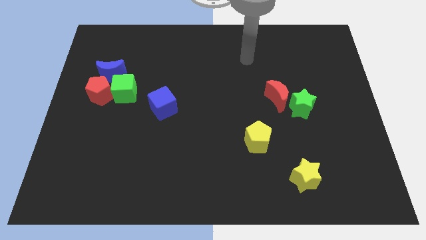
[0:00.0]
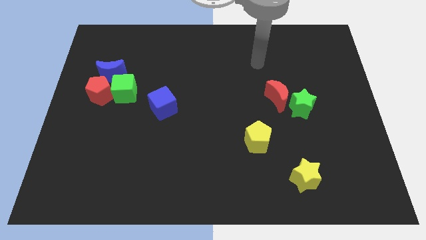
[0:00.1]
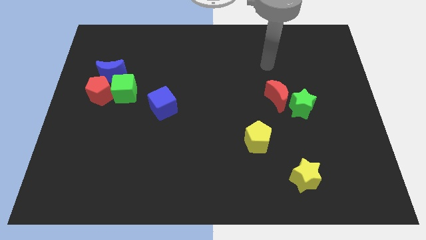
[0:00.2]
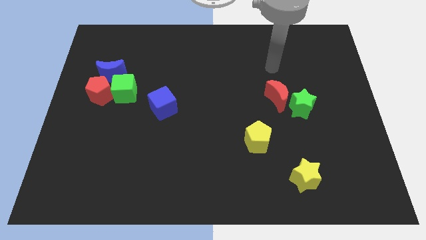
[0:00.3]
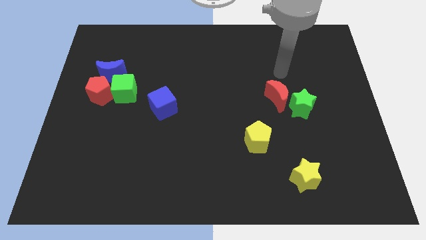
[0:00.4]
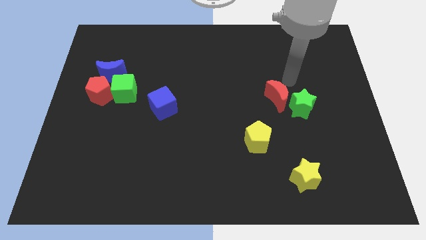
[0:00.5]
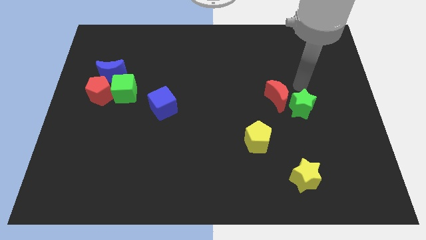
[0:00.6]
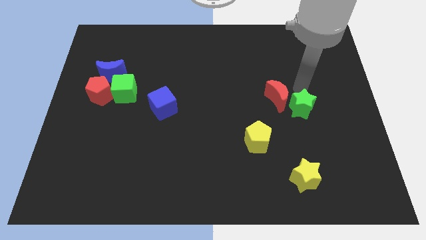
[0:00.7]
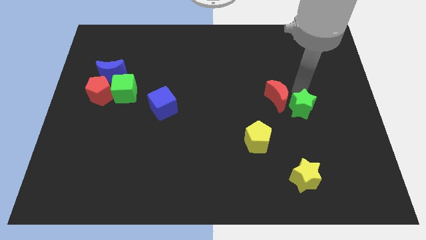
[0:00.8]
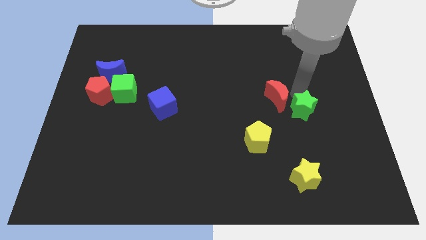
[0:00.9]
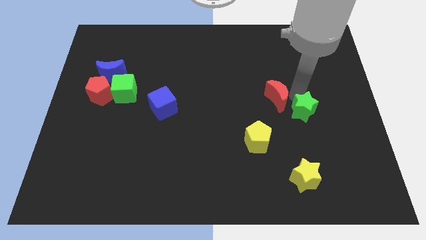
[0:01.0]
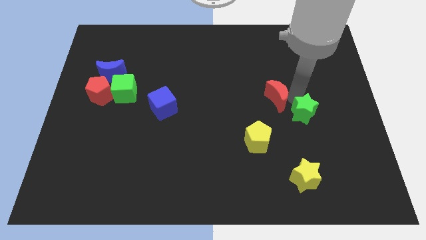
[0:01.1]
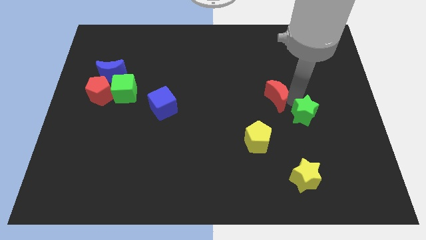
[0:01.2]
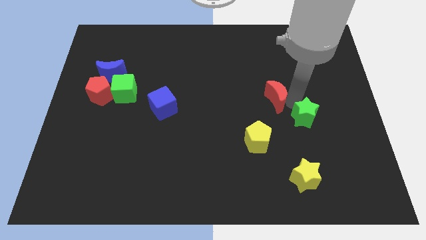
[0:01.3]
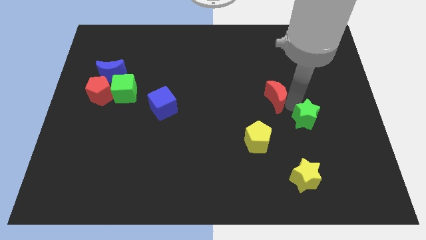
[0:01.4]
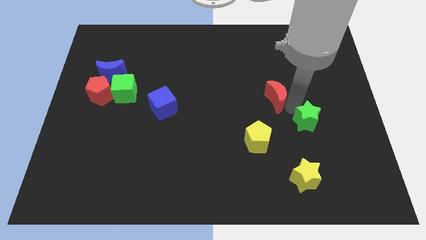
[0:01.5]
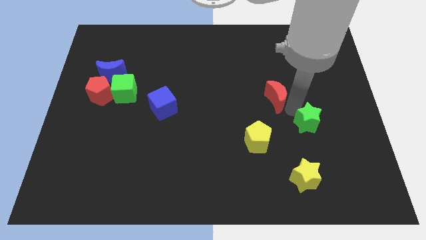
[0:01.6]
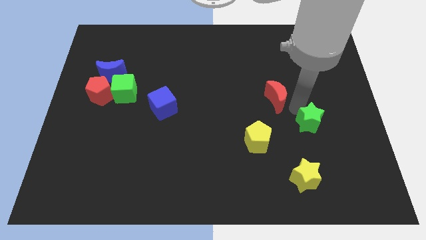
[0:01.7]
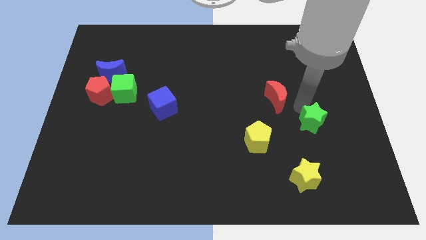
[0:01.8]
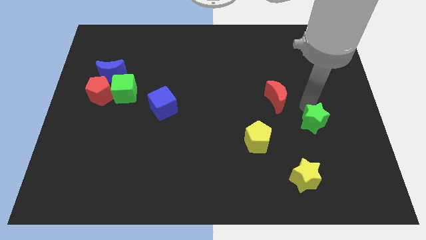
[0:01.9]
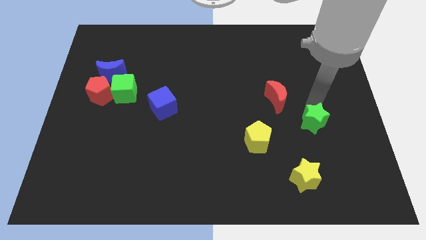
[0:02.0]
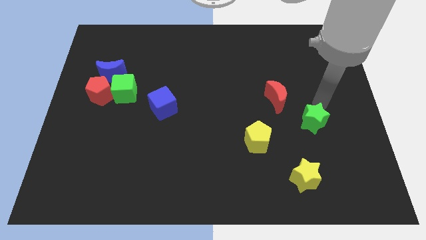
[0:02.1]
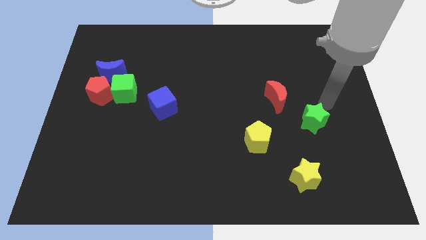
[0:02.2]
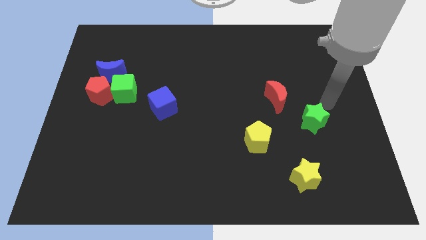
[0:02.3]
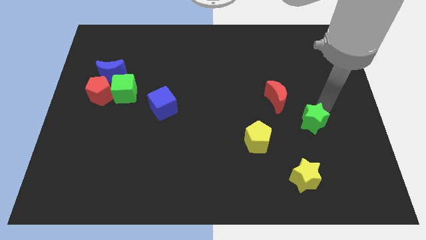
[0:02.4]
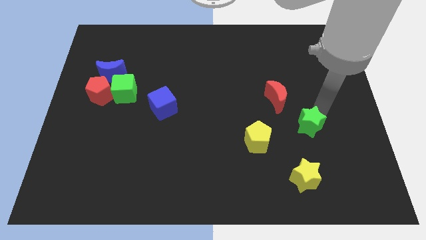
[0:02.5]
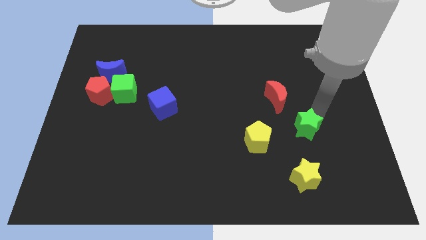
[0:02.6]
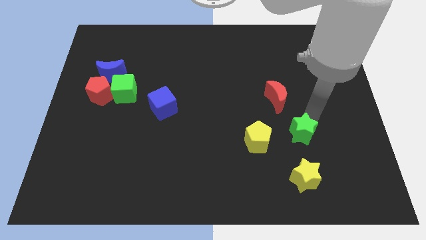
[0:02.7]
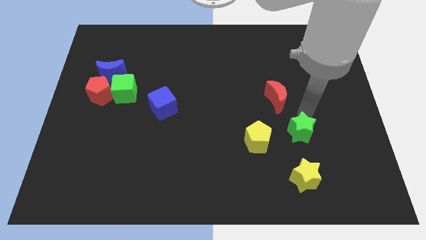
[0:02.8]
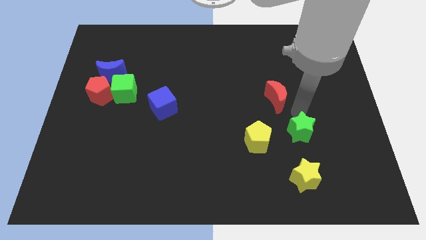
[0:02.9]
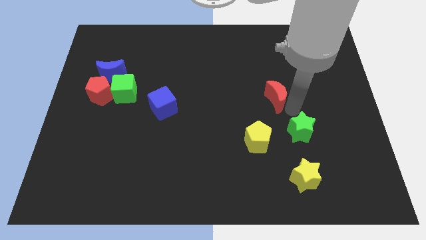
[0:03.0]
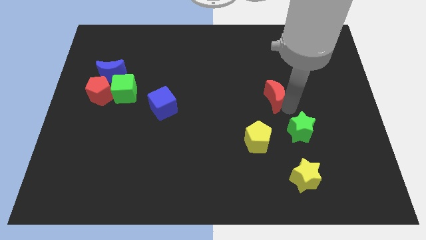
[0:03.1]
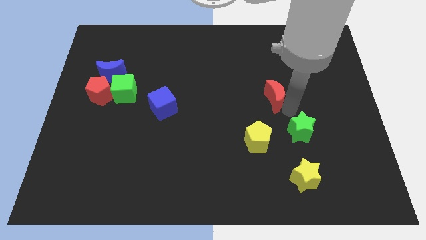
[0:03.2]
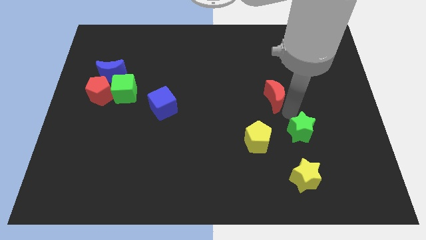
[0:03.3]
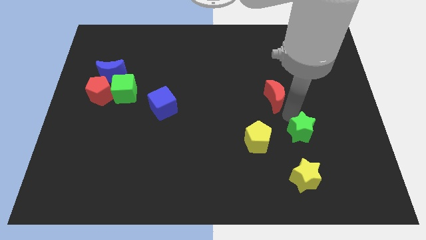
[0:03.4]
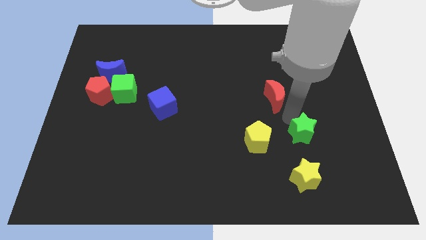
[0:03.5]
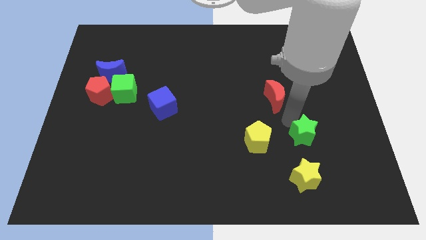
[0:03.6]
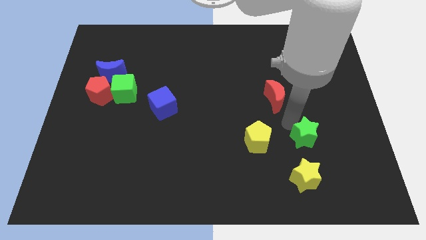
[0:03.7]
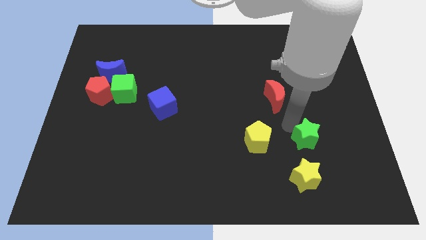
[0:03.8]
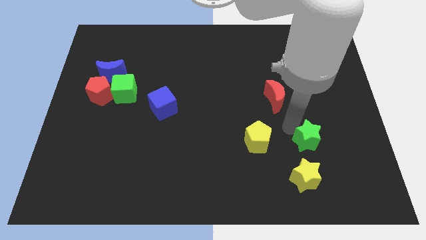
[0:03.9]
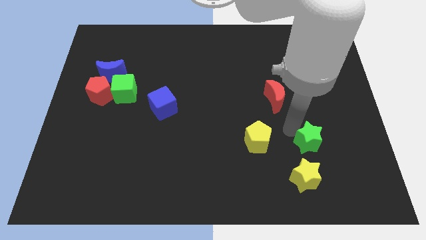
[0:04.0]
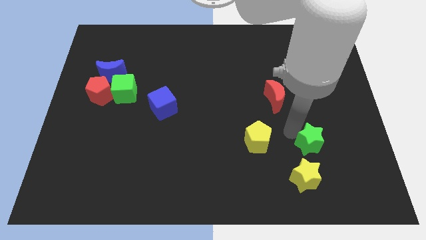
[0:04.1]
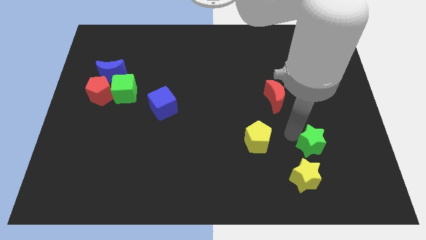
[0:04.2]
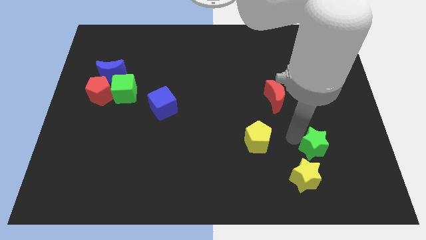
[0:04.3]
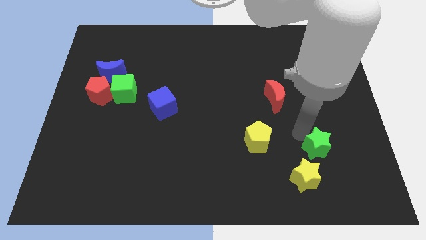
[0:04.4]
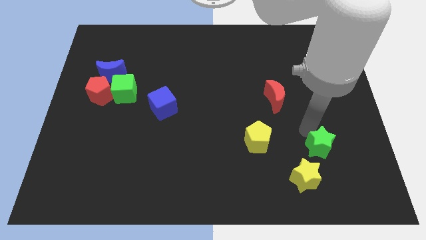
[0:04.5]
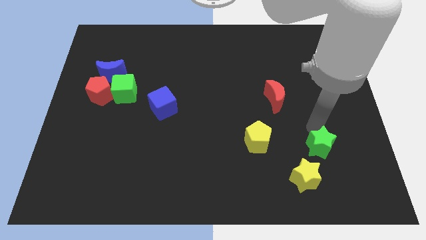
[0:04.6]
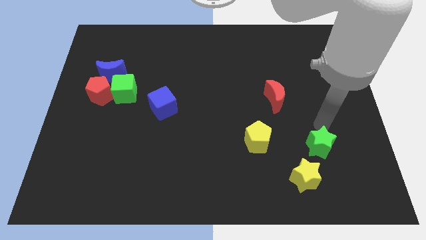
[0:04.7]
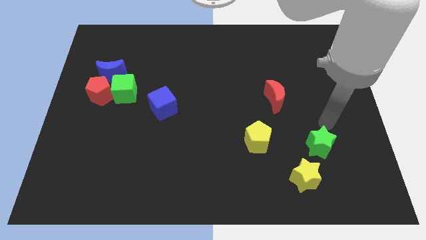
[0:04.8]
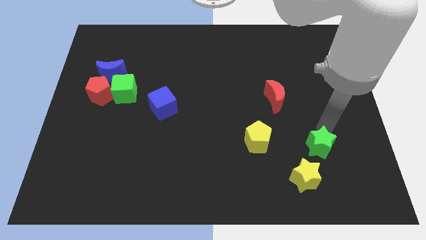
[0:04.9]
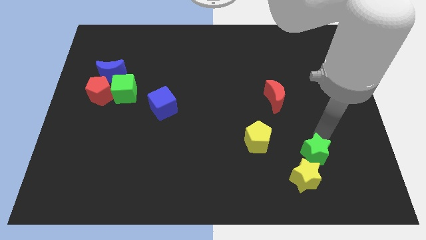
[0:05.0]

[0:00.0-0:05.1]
move the green star towards the yellow star

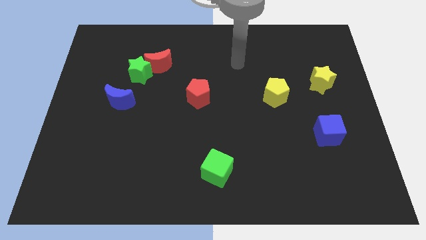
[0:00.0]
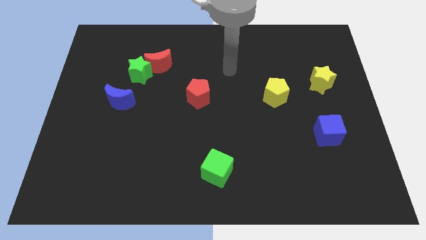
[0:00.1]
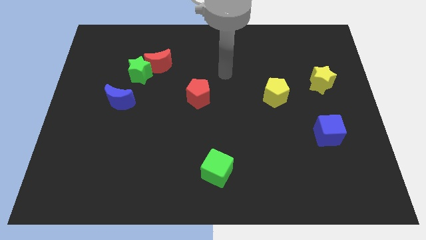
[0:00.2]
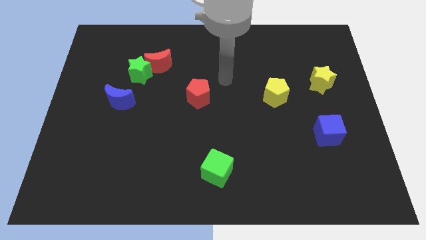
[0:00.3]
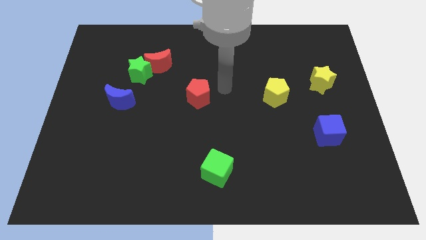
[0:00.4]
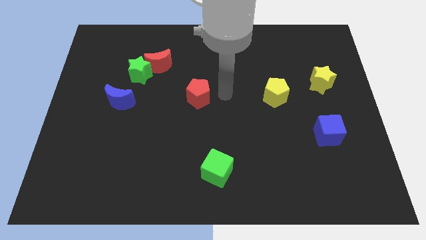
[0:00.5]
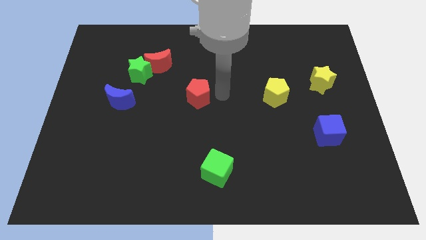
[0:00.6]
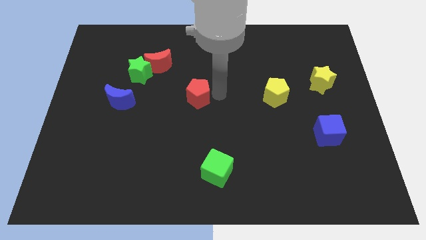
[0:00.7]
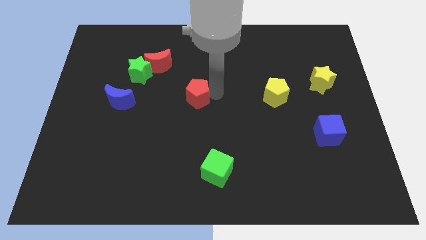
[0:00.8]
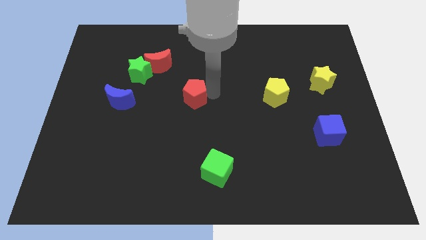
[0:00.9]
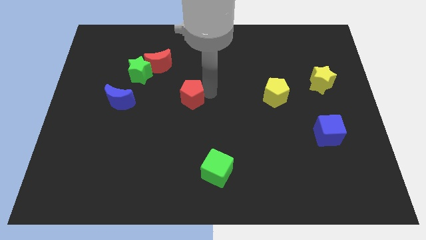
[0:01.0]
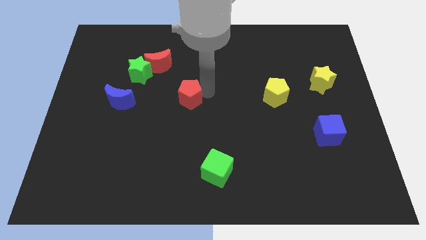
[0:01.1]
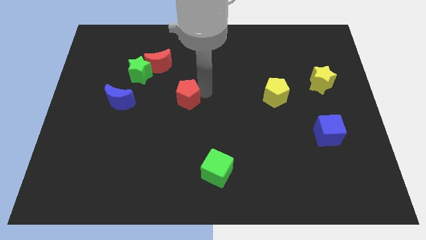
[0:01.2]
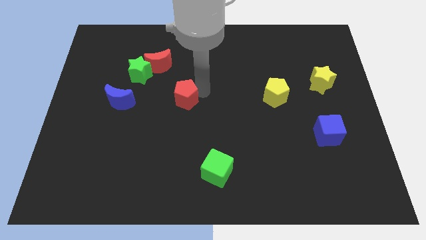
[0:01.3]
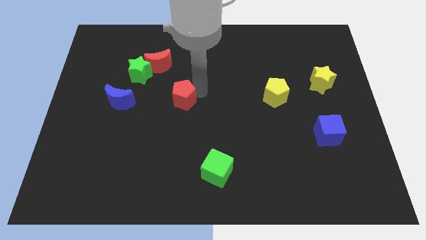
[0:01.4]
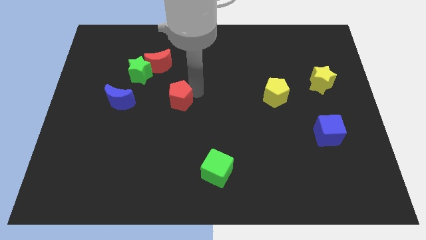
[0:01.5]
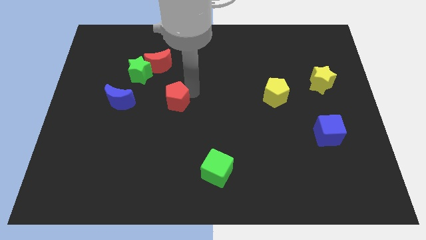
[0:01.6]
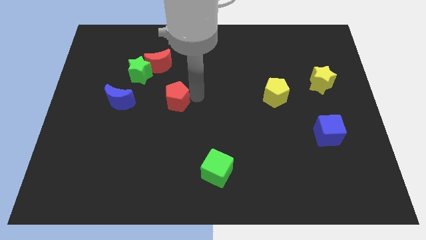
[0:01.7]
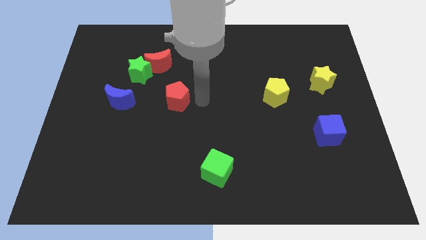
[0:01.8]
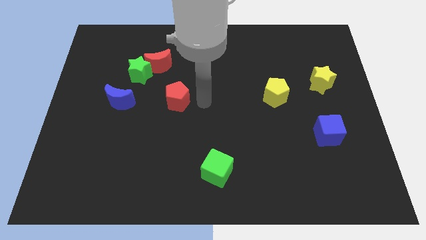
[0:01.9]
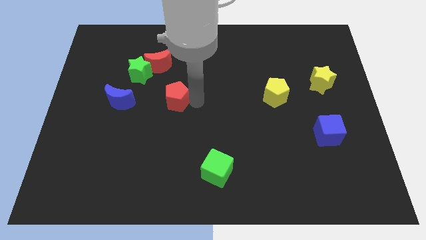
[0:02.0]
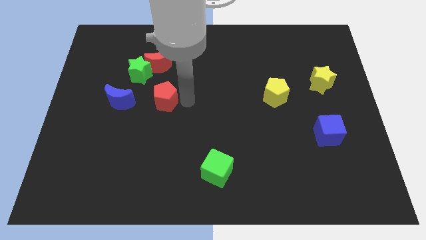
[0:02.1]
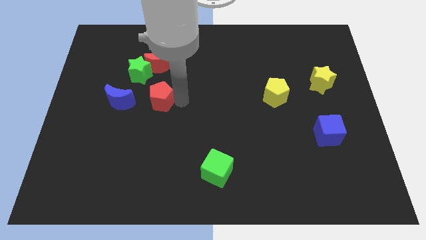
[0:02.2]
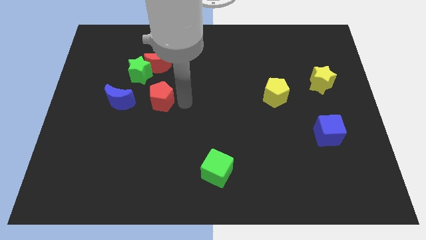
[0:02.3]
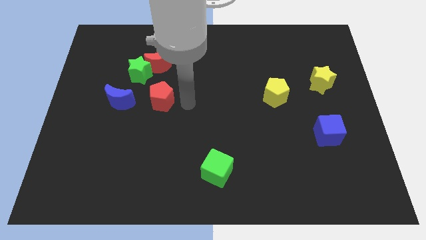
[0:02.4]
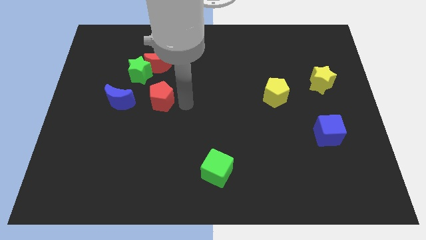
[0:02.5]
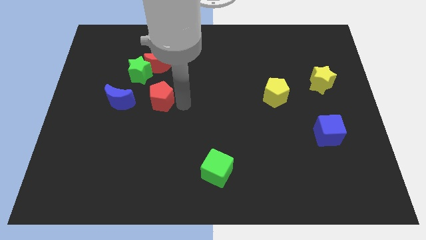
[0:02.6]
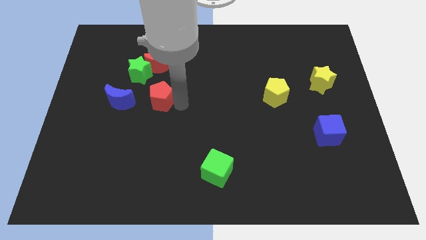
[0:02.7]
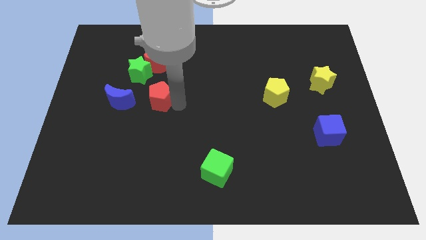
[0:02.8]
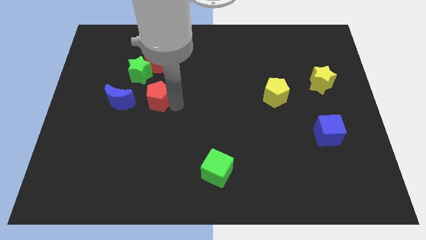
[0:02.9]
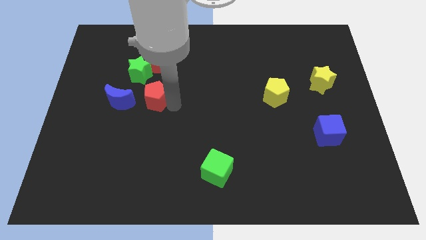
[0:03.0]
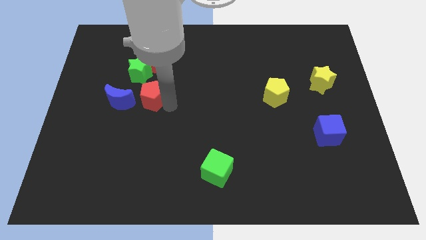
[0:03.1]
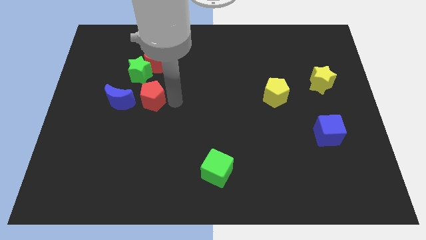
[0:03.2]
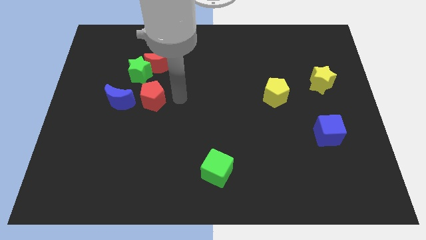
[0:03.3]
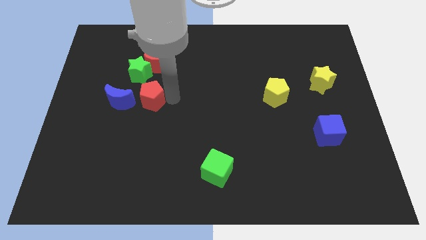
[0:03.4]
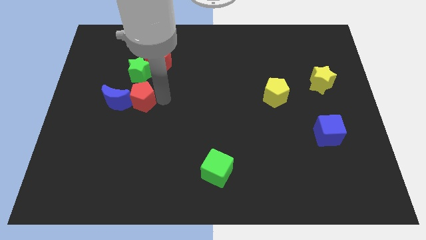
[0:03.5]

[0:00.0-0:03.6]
push the red pentagon to the blue moon
